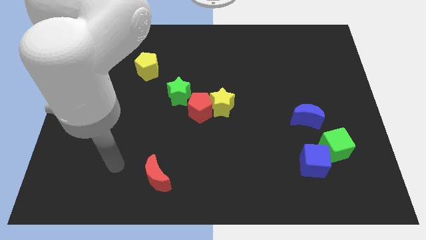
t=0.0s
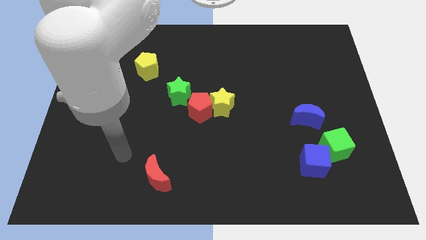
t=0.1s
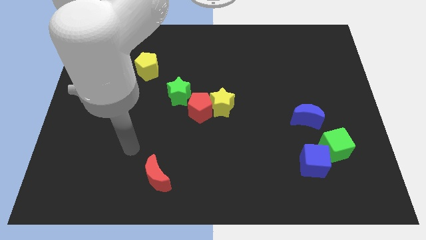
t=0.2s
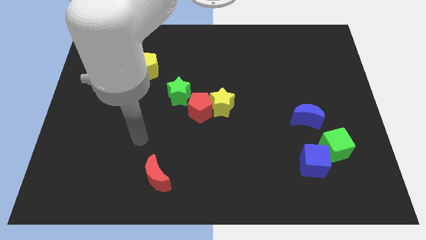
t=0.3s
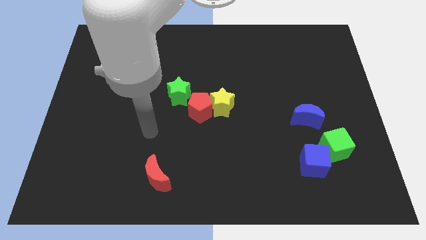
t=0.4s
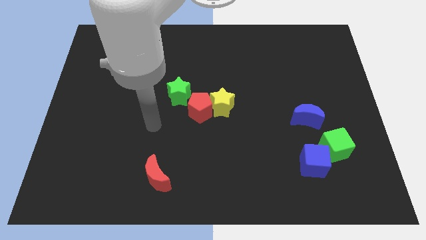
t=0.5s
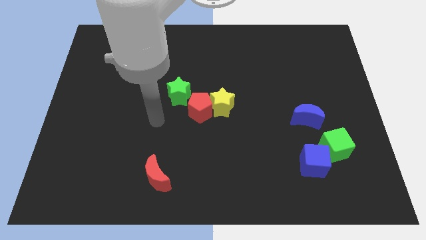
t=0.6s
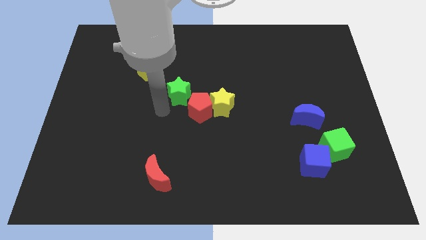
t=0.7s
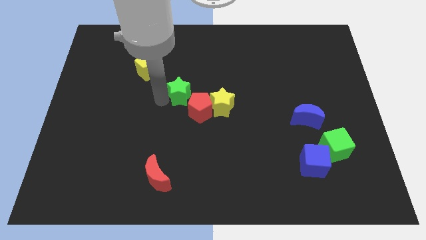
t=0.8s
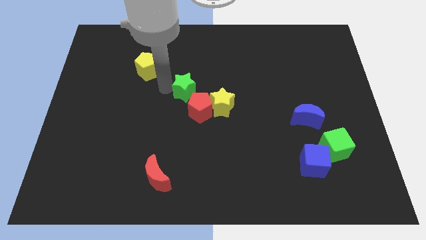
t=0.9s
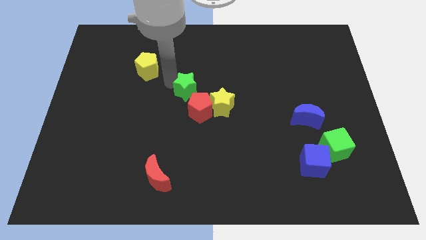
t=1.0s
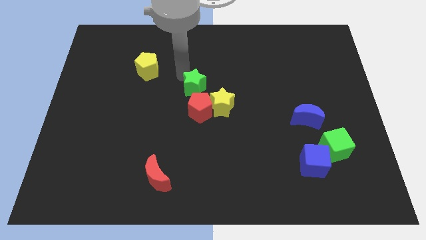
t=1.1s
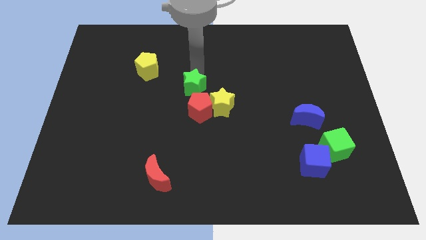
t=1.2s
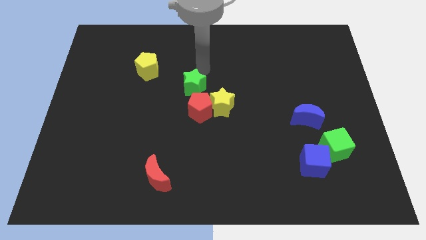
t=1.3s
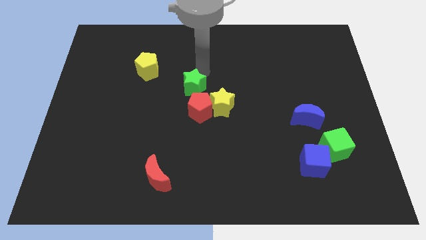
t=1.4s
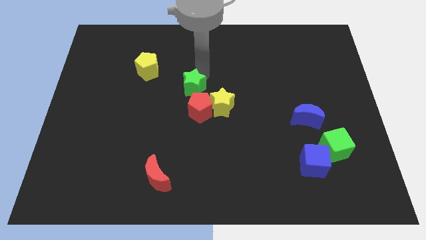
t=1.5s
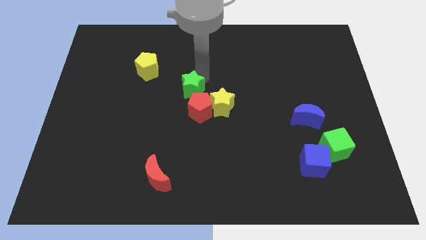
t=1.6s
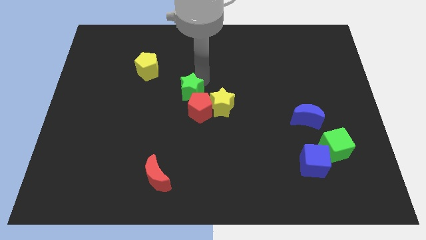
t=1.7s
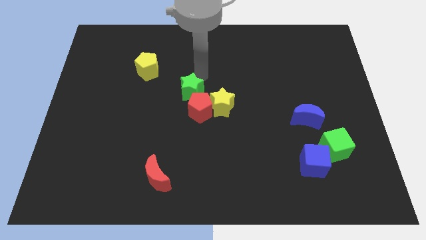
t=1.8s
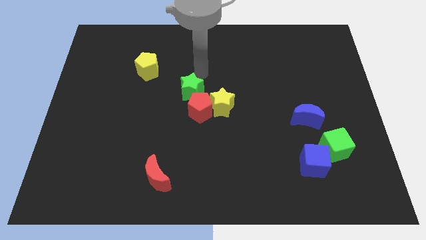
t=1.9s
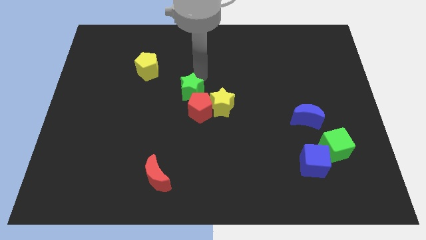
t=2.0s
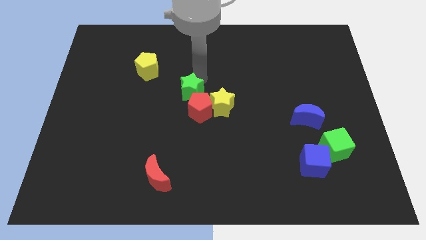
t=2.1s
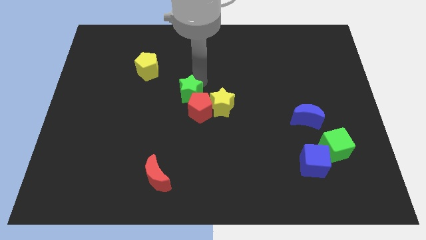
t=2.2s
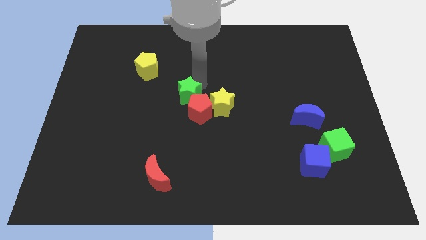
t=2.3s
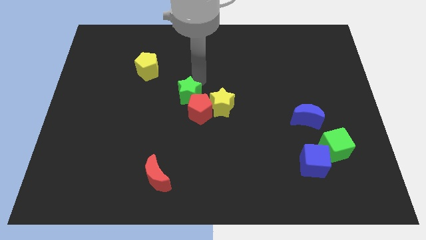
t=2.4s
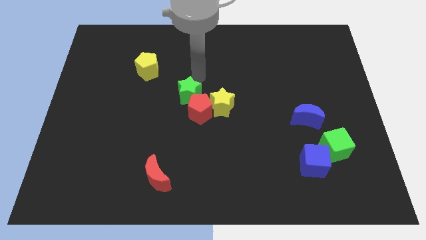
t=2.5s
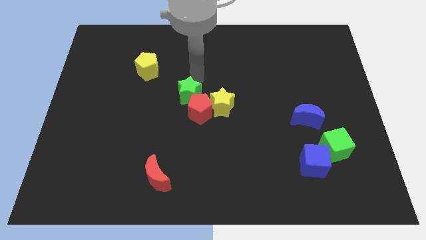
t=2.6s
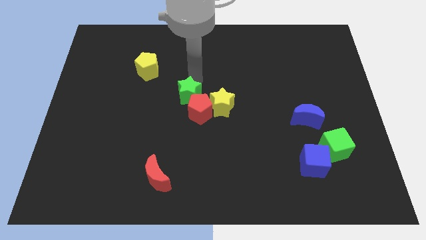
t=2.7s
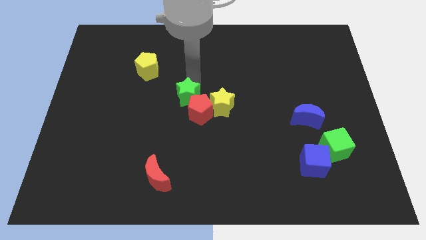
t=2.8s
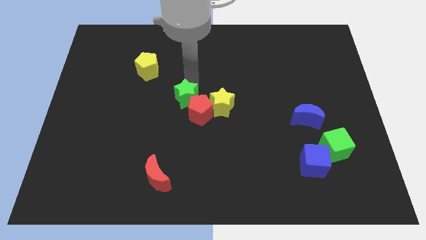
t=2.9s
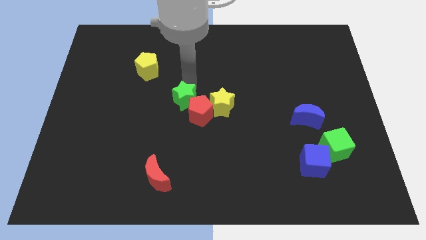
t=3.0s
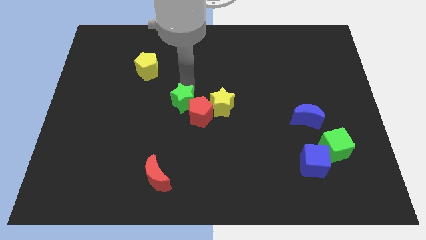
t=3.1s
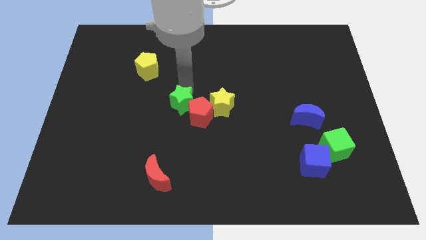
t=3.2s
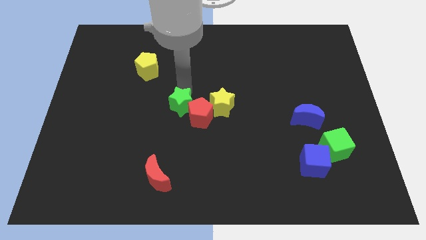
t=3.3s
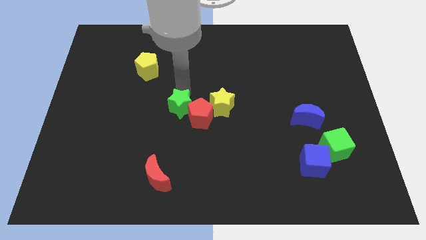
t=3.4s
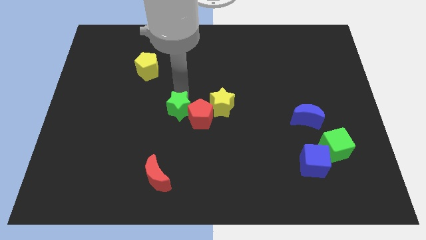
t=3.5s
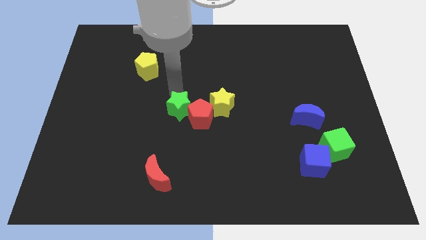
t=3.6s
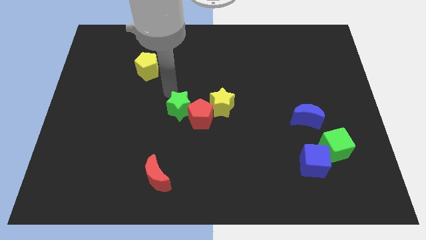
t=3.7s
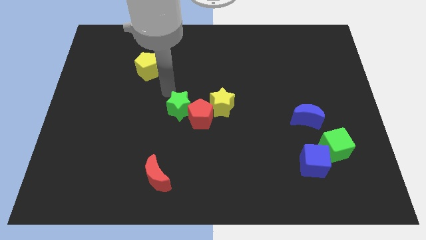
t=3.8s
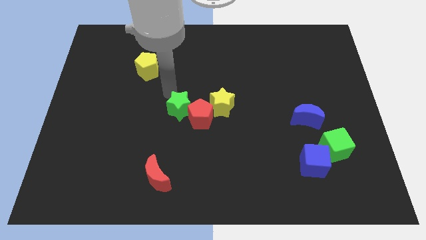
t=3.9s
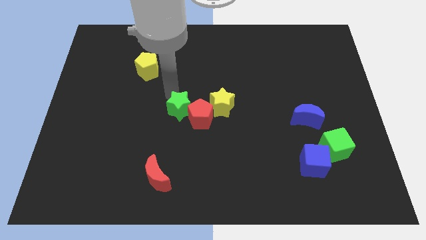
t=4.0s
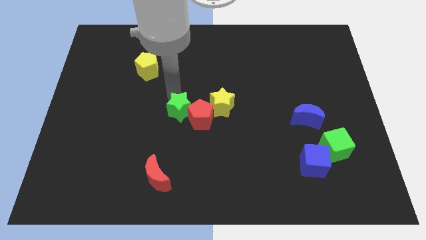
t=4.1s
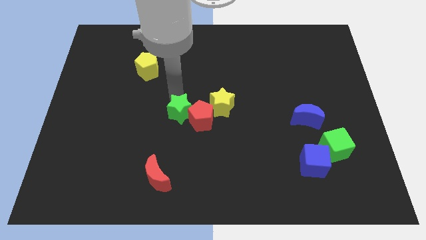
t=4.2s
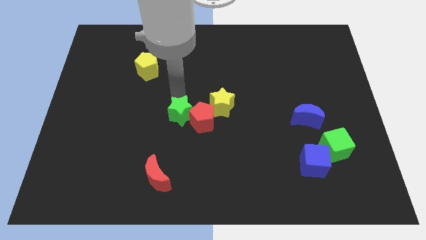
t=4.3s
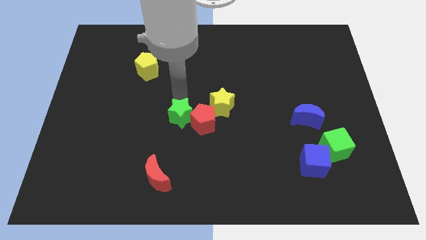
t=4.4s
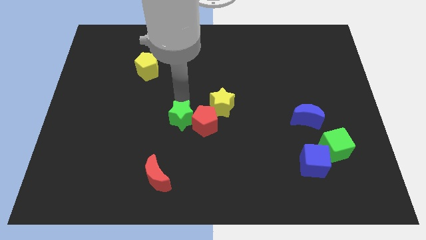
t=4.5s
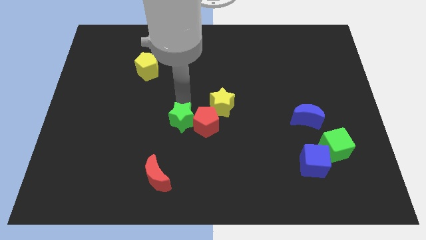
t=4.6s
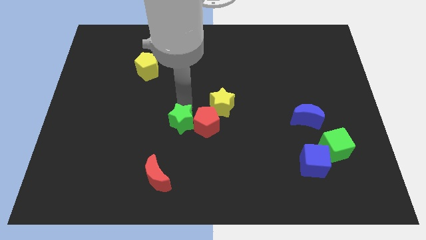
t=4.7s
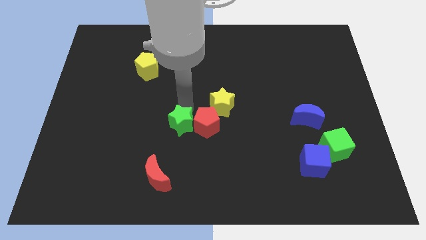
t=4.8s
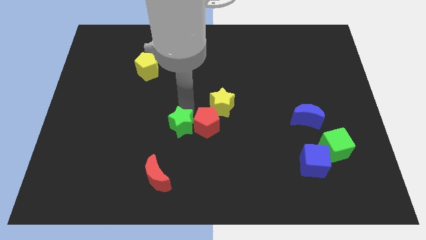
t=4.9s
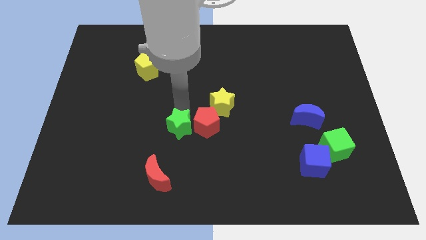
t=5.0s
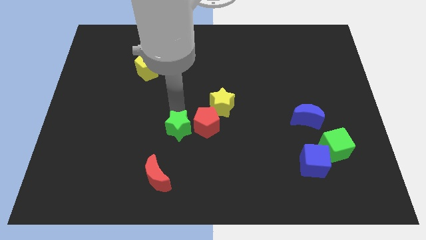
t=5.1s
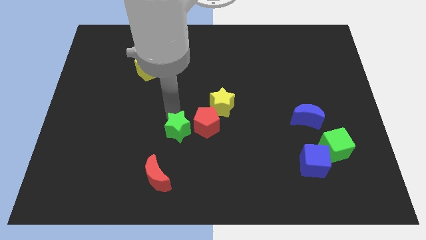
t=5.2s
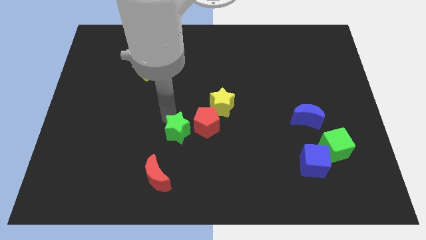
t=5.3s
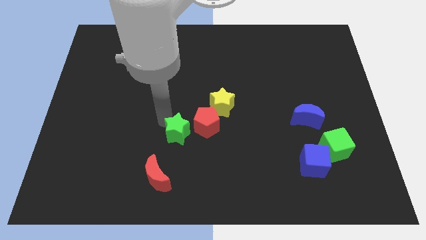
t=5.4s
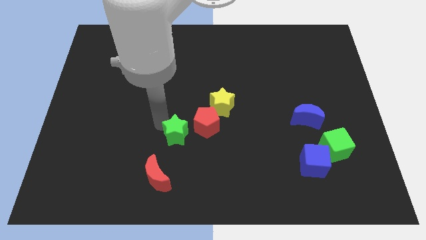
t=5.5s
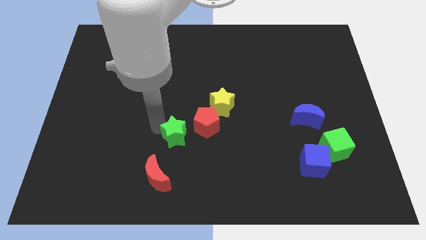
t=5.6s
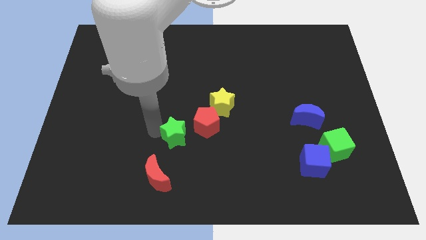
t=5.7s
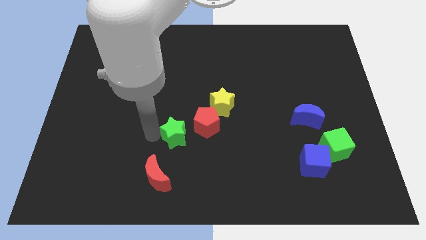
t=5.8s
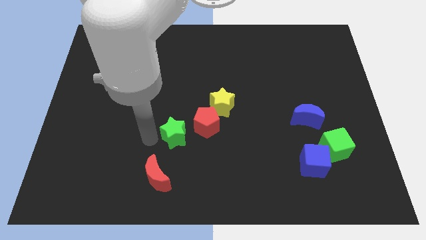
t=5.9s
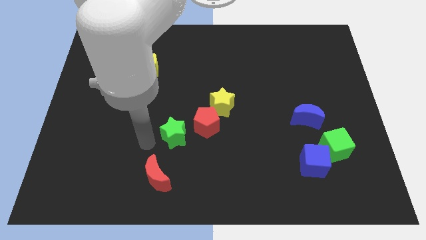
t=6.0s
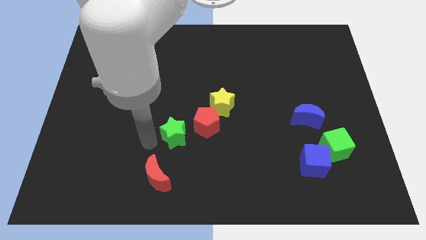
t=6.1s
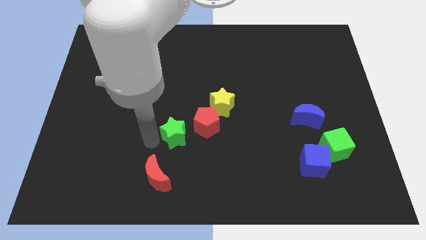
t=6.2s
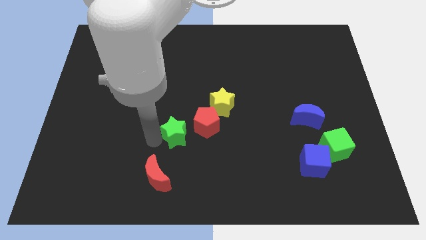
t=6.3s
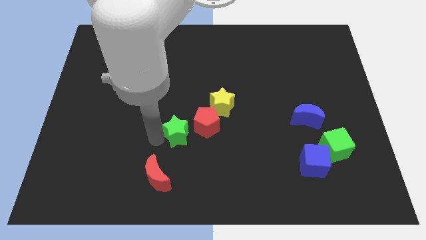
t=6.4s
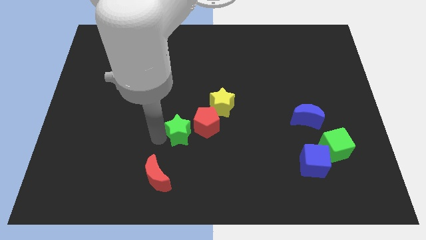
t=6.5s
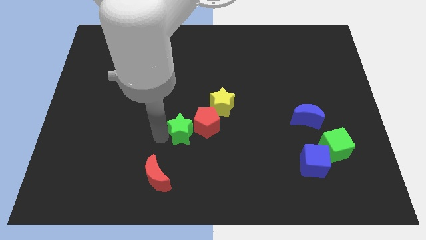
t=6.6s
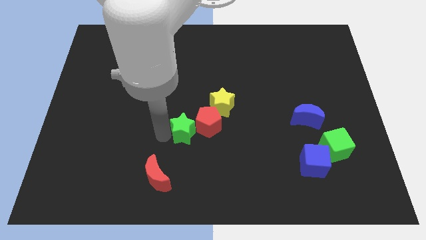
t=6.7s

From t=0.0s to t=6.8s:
slide the green star downwards and then to the right a little bit

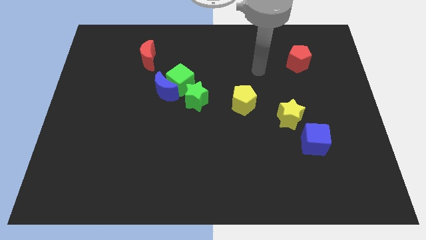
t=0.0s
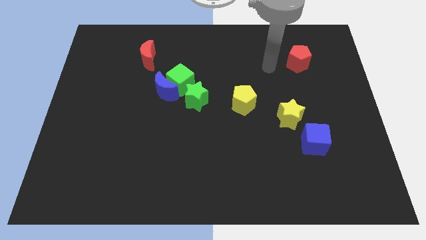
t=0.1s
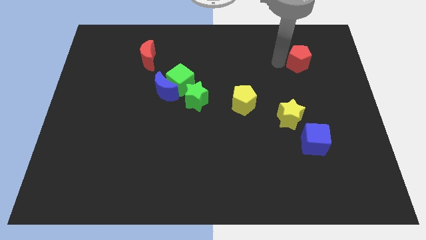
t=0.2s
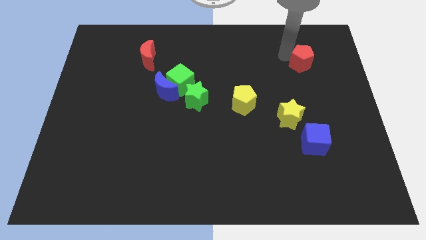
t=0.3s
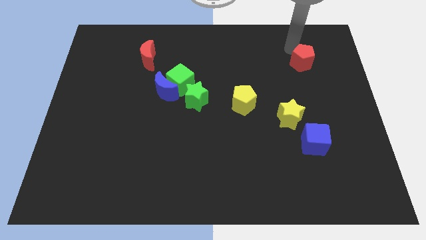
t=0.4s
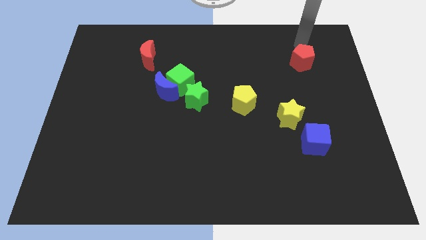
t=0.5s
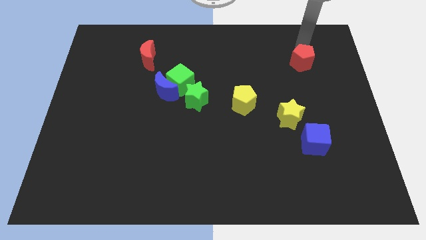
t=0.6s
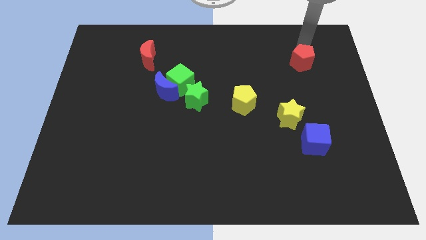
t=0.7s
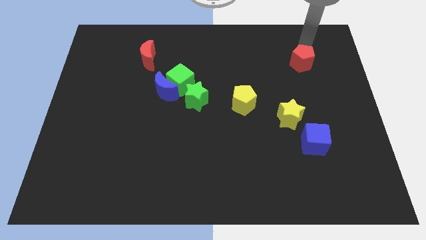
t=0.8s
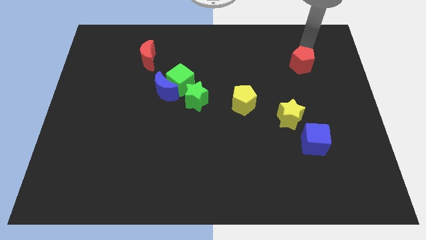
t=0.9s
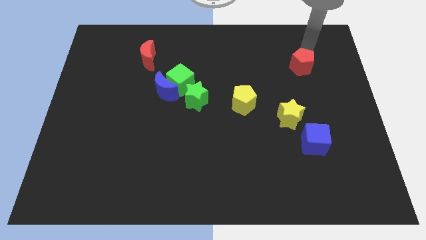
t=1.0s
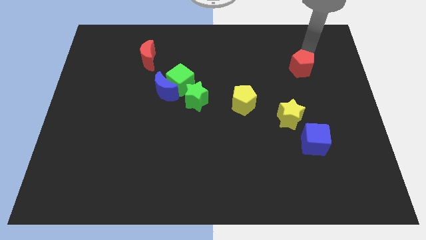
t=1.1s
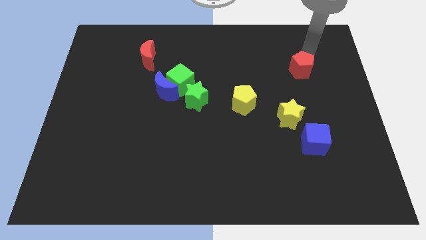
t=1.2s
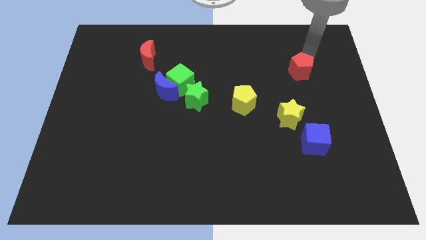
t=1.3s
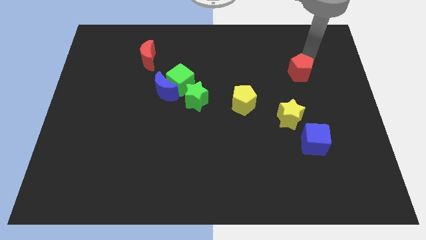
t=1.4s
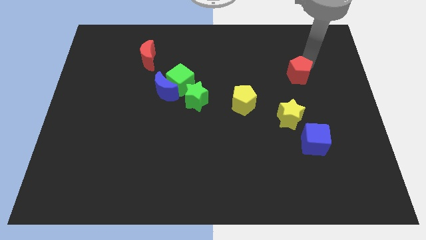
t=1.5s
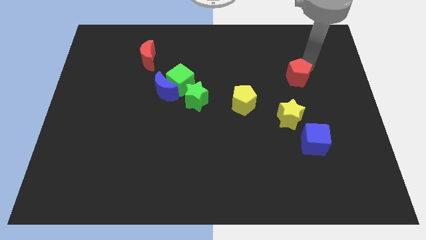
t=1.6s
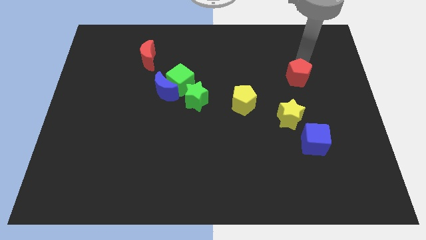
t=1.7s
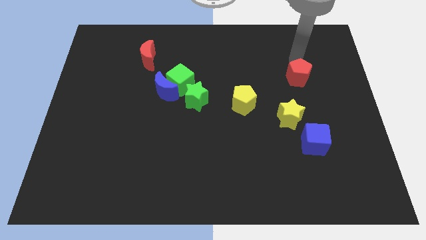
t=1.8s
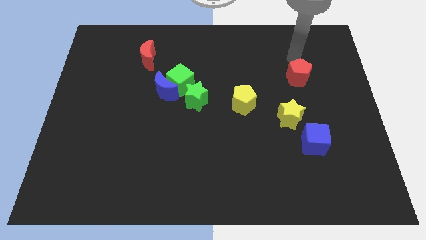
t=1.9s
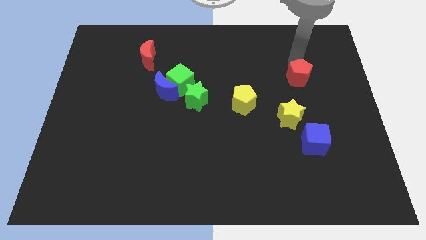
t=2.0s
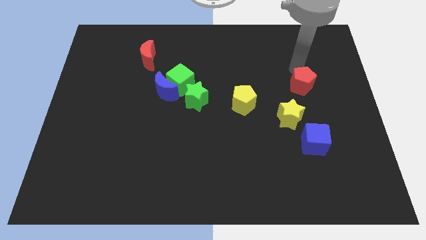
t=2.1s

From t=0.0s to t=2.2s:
move the red pentagon a little downwards
